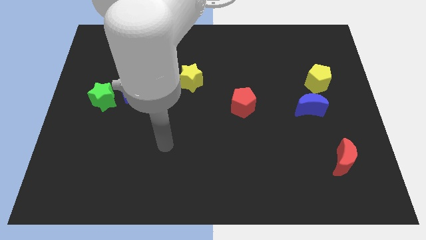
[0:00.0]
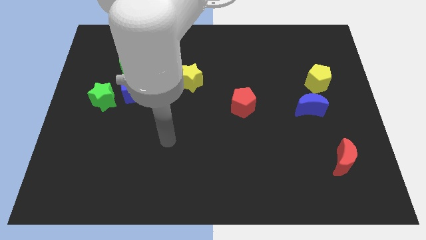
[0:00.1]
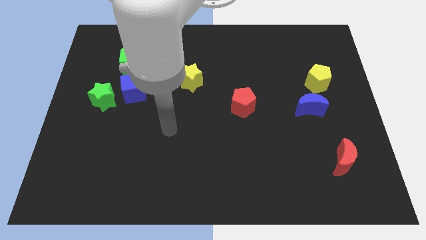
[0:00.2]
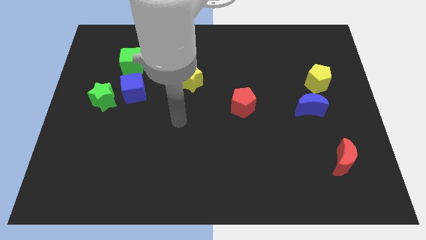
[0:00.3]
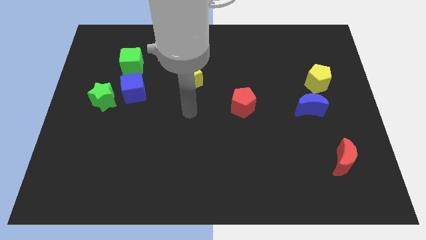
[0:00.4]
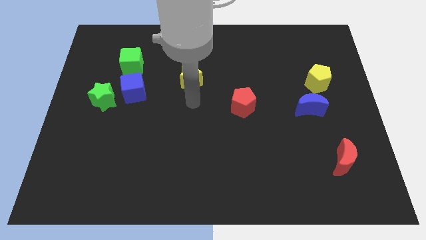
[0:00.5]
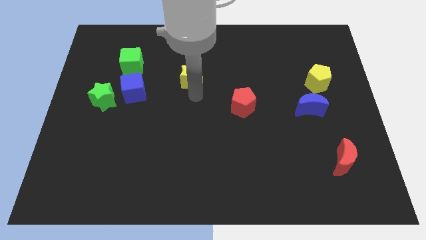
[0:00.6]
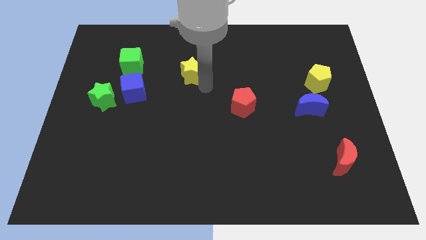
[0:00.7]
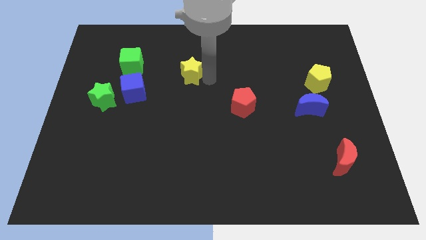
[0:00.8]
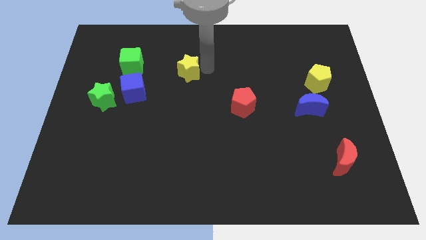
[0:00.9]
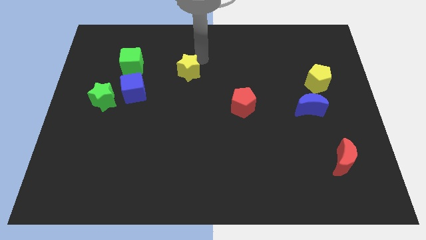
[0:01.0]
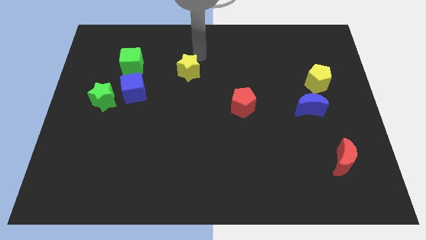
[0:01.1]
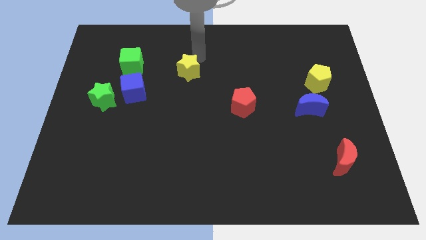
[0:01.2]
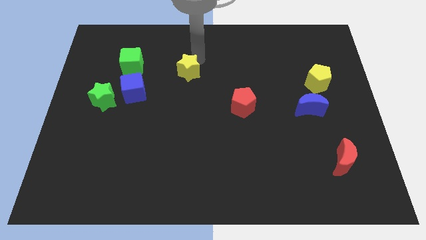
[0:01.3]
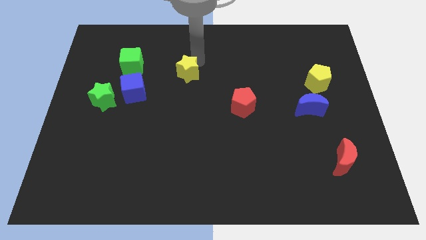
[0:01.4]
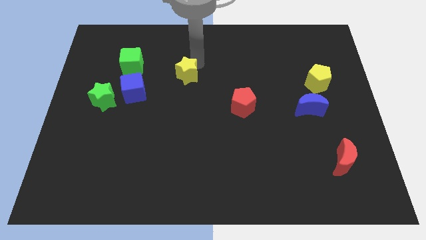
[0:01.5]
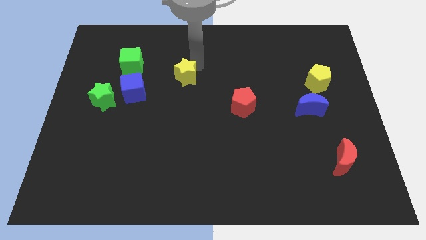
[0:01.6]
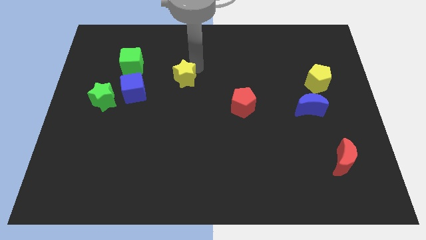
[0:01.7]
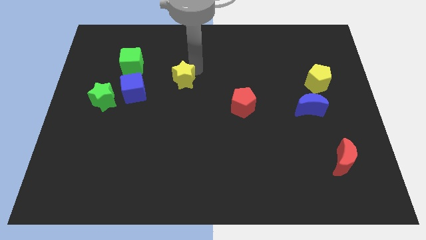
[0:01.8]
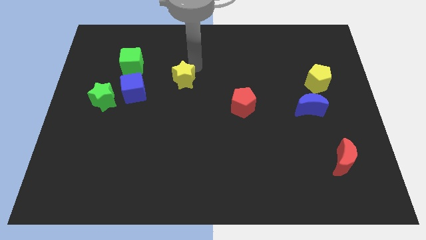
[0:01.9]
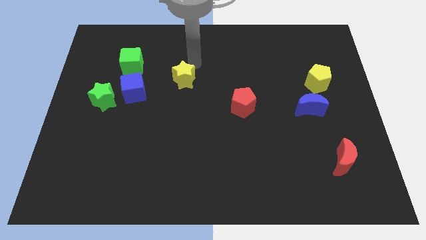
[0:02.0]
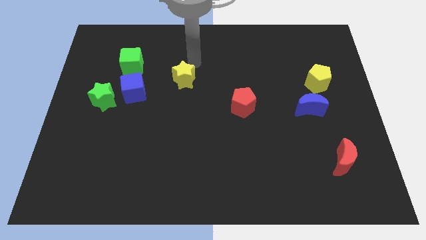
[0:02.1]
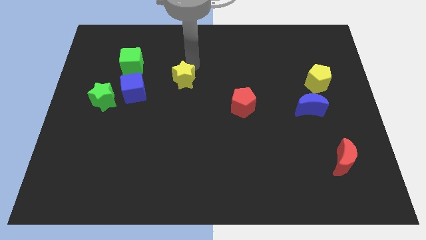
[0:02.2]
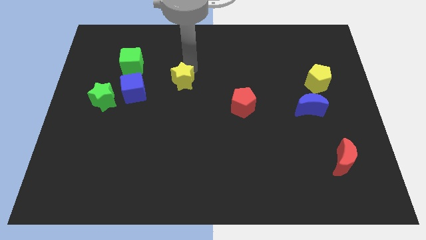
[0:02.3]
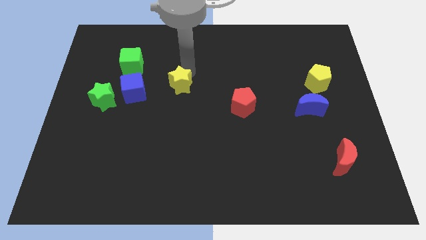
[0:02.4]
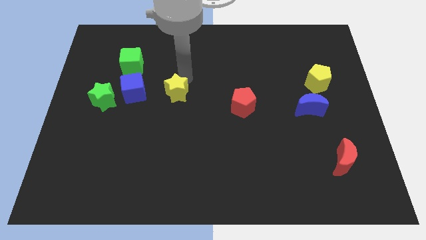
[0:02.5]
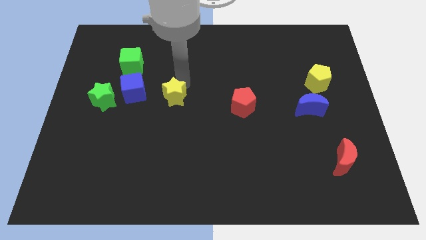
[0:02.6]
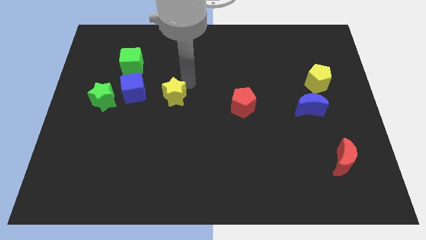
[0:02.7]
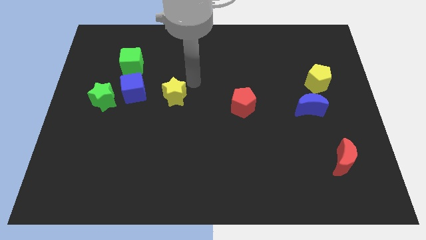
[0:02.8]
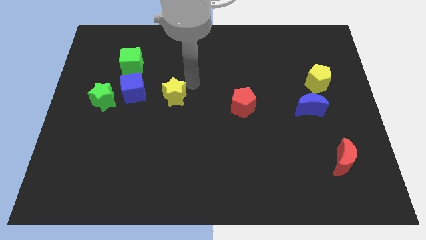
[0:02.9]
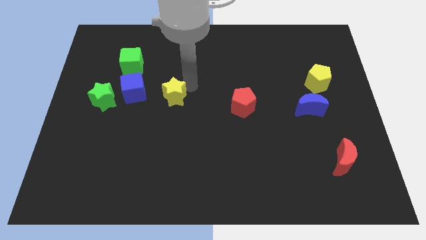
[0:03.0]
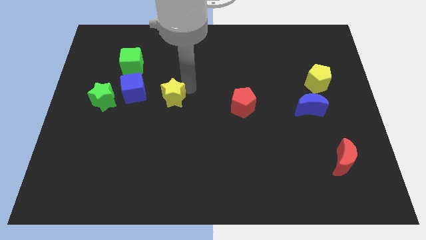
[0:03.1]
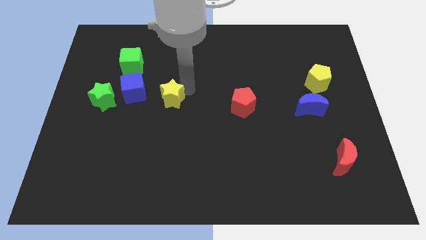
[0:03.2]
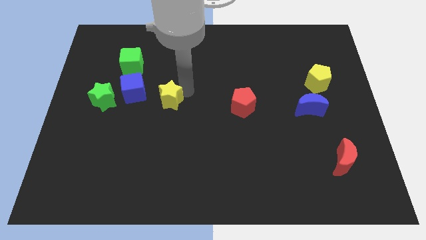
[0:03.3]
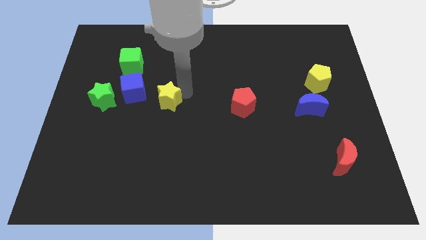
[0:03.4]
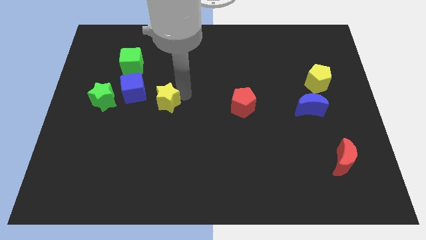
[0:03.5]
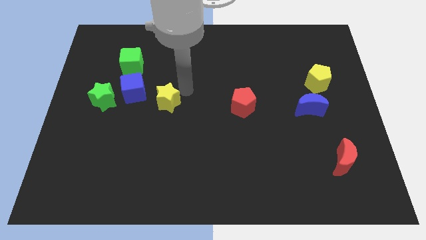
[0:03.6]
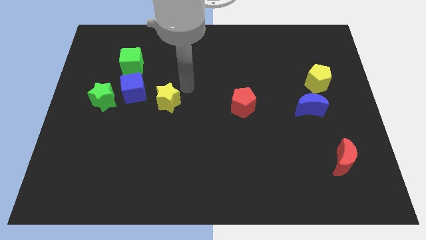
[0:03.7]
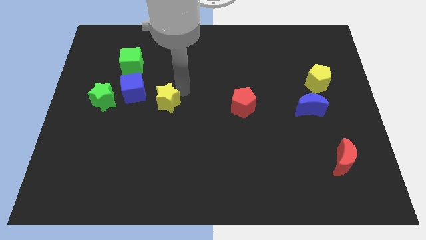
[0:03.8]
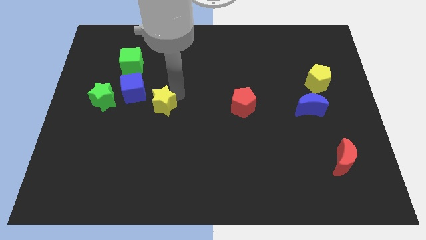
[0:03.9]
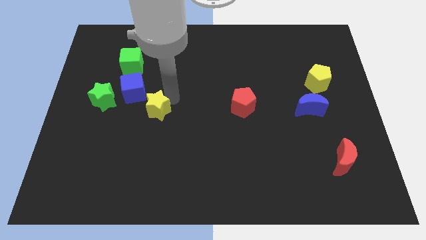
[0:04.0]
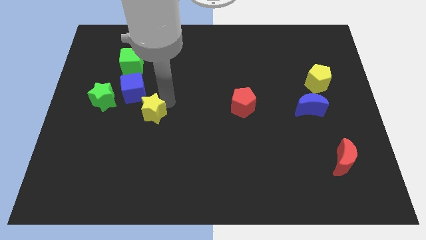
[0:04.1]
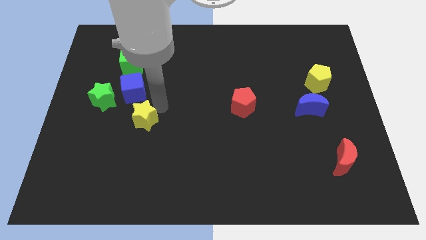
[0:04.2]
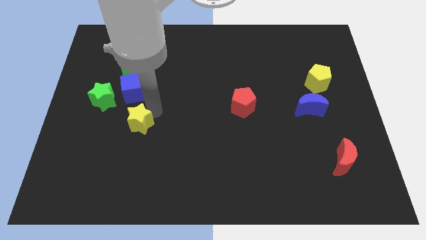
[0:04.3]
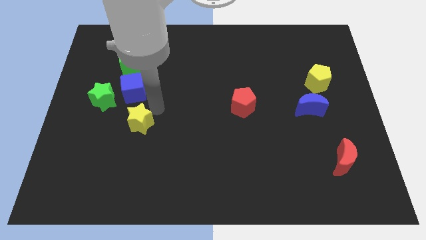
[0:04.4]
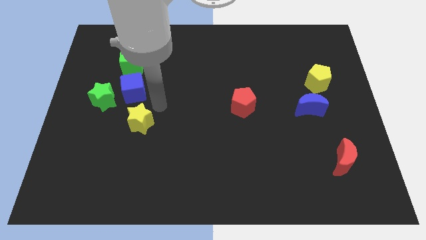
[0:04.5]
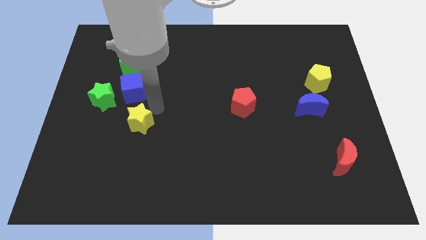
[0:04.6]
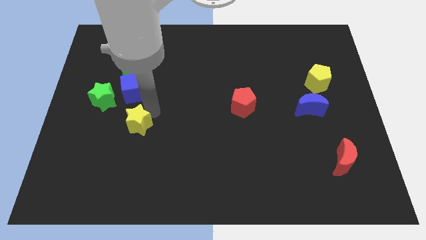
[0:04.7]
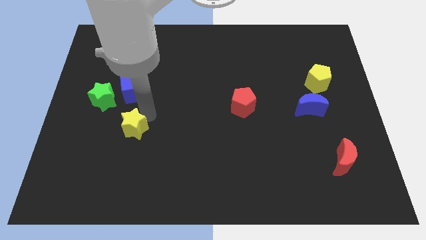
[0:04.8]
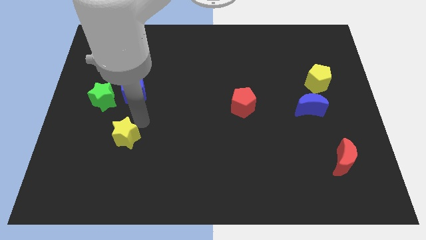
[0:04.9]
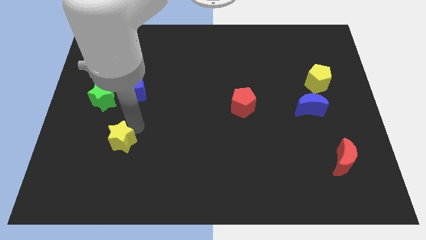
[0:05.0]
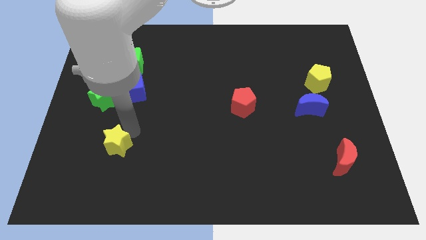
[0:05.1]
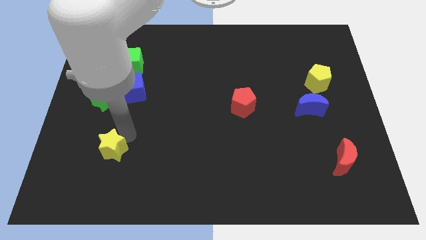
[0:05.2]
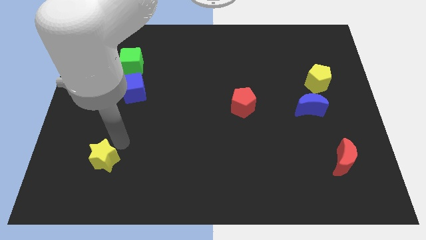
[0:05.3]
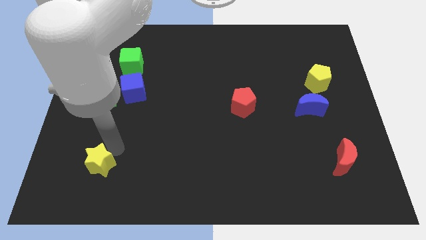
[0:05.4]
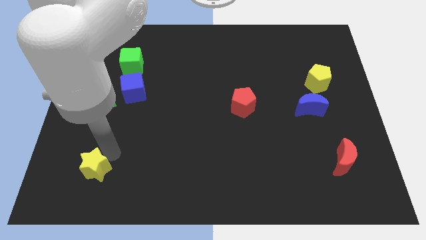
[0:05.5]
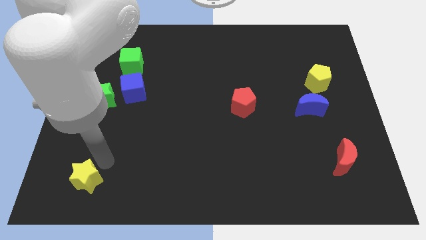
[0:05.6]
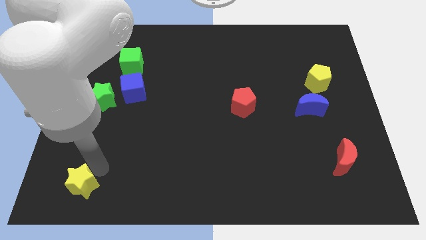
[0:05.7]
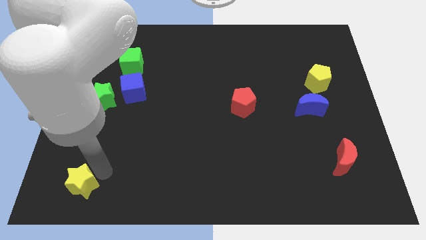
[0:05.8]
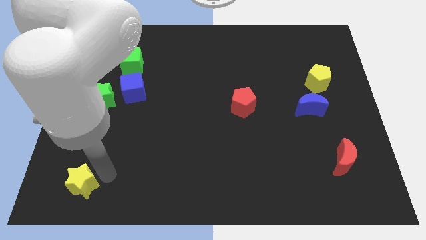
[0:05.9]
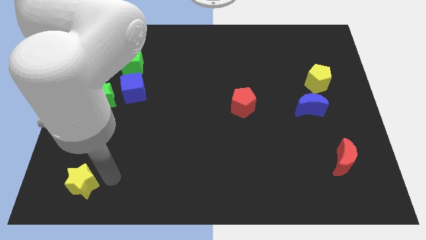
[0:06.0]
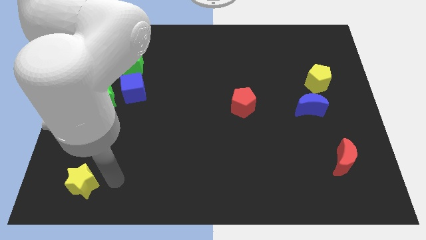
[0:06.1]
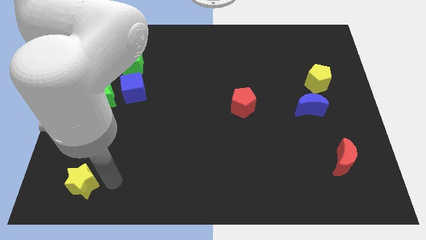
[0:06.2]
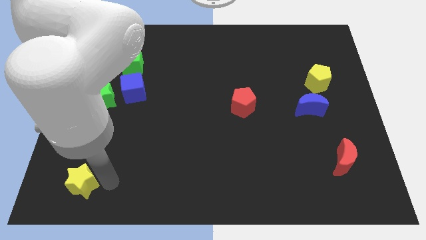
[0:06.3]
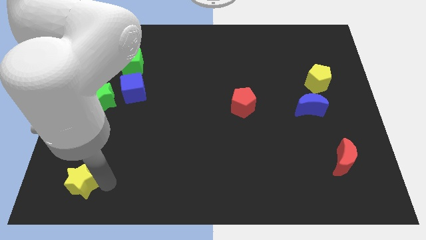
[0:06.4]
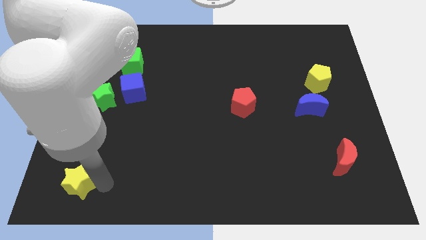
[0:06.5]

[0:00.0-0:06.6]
slide the yellow star to the bottom left corner

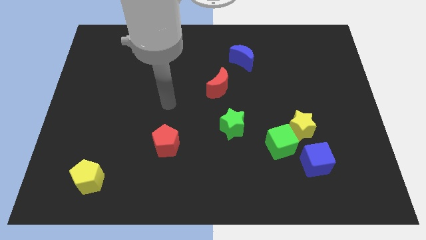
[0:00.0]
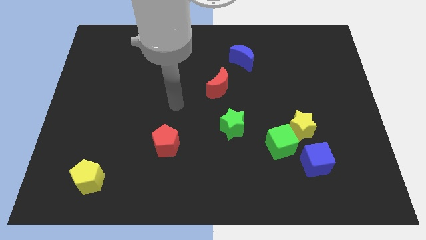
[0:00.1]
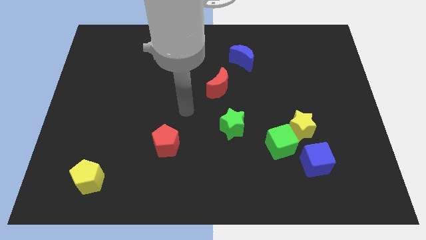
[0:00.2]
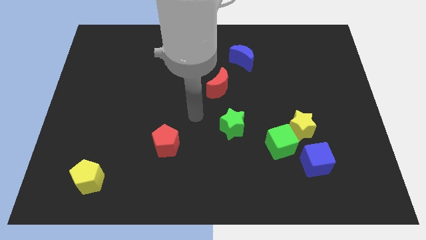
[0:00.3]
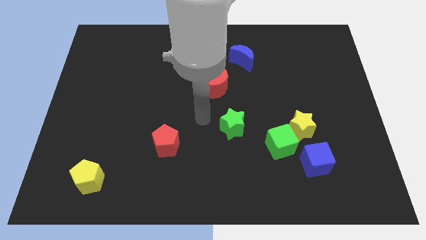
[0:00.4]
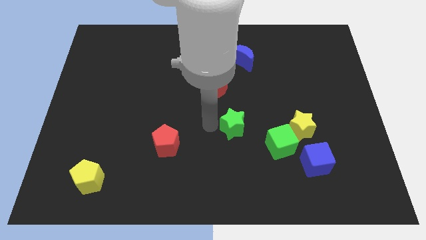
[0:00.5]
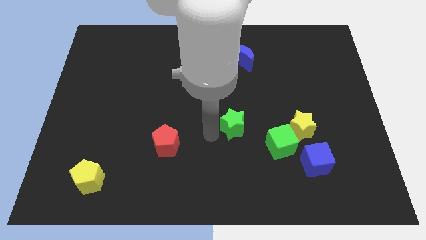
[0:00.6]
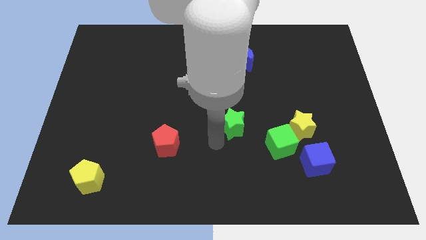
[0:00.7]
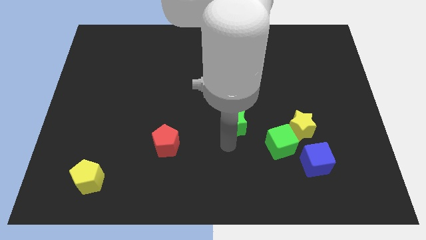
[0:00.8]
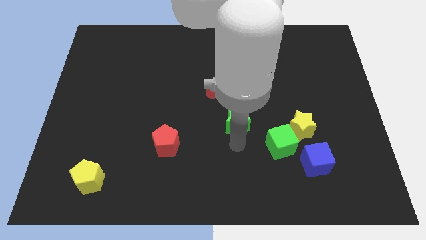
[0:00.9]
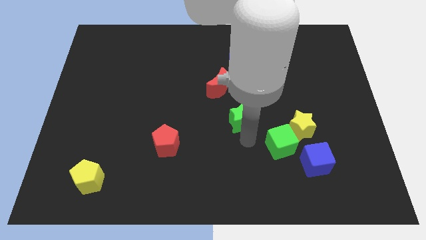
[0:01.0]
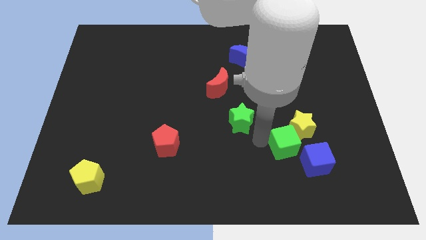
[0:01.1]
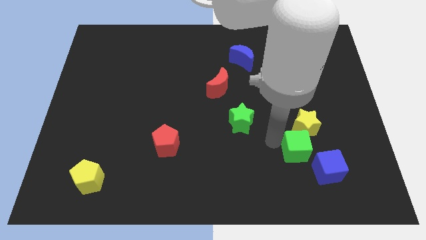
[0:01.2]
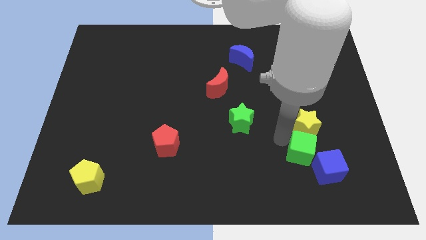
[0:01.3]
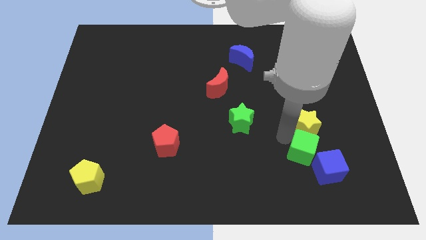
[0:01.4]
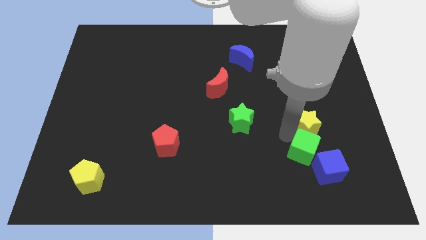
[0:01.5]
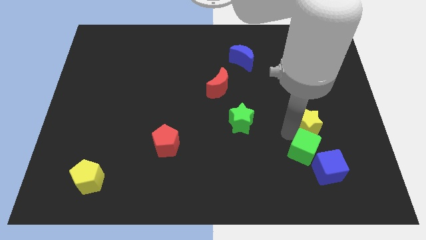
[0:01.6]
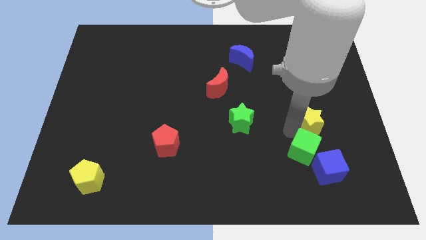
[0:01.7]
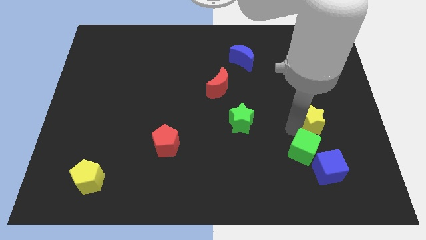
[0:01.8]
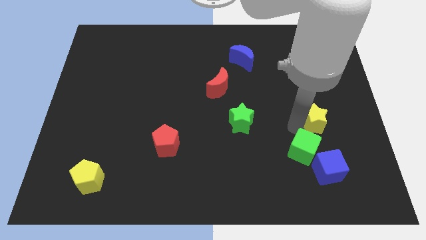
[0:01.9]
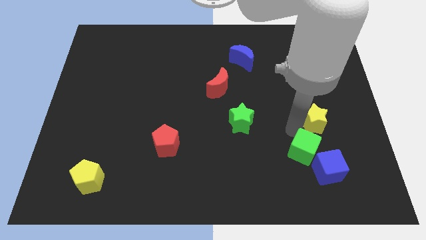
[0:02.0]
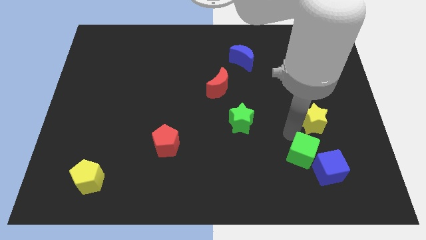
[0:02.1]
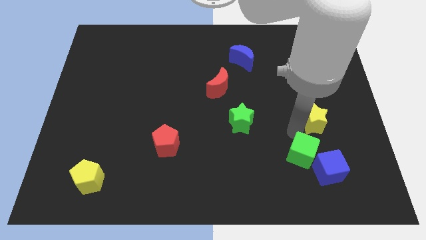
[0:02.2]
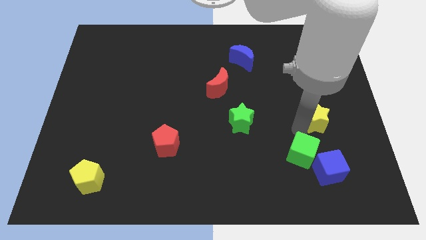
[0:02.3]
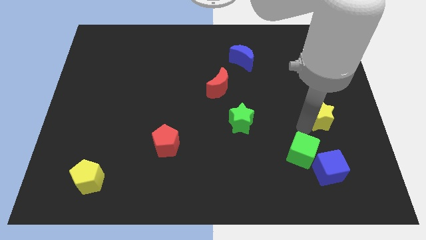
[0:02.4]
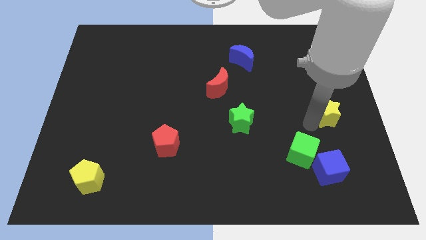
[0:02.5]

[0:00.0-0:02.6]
push the yellow star to the center right
